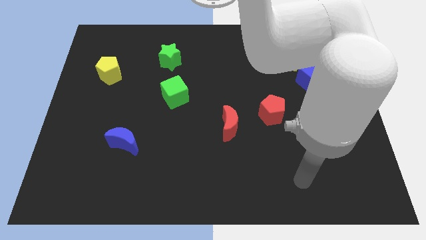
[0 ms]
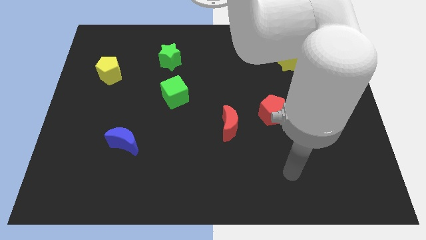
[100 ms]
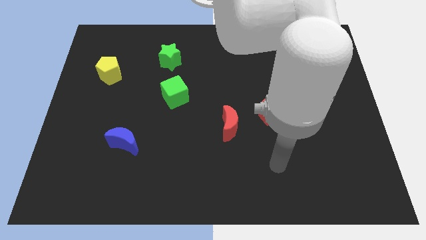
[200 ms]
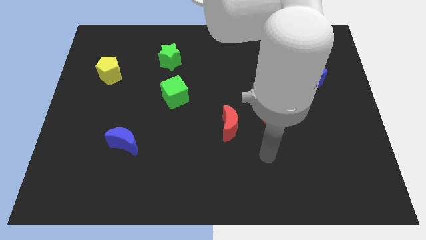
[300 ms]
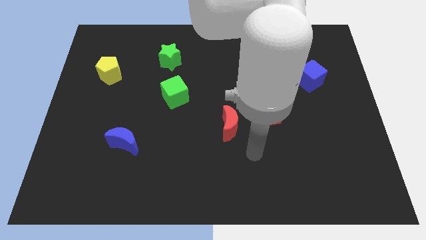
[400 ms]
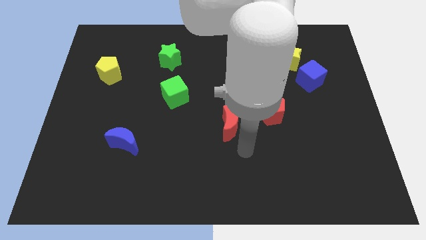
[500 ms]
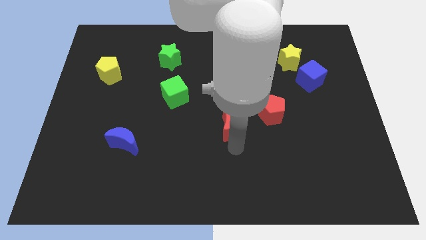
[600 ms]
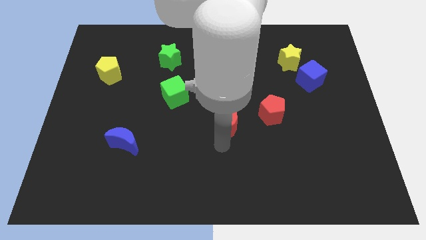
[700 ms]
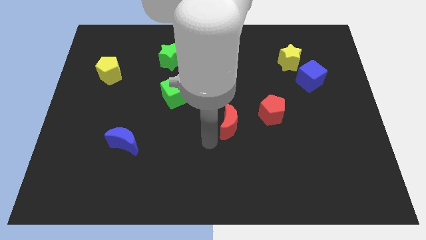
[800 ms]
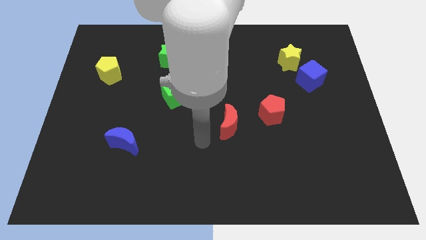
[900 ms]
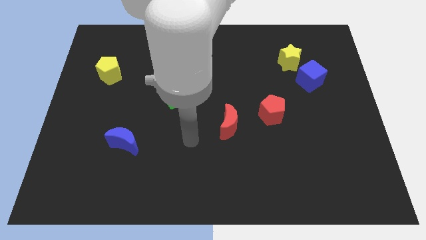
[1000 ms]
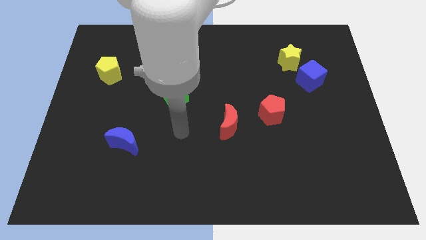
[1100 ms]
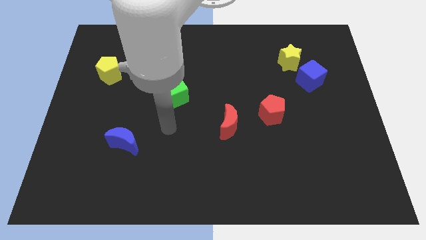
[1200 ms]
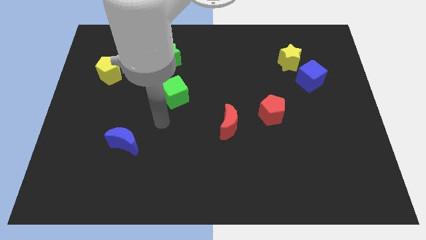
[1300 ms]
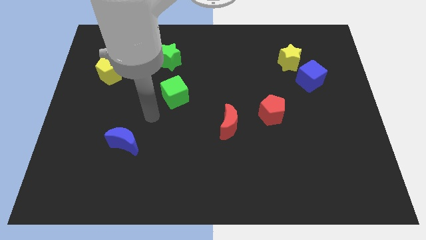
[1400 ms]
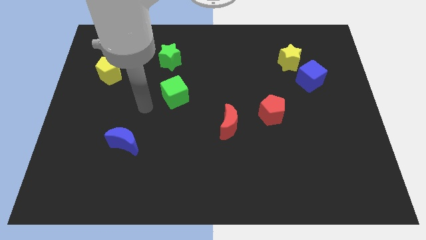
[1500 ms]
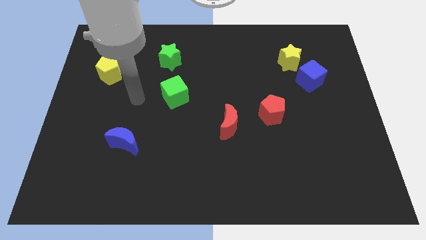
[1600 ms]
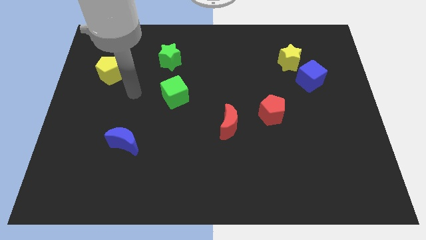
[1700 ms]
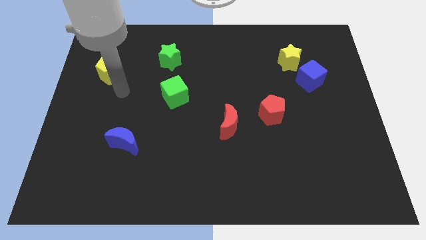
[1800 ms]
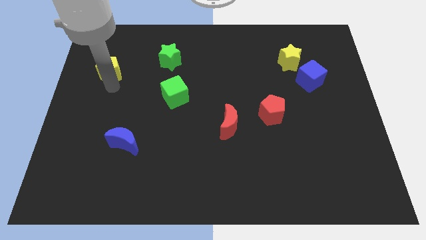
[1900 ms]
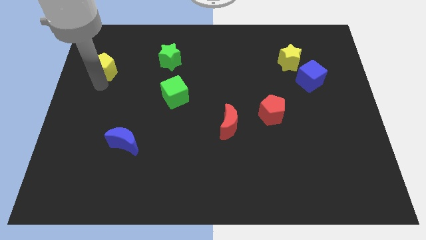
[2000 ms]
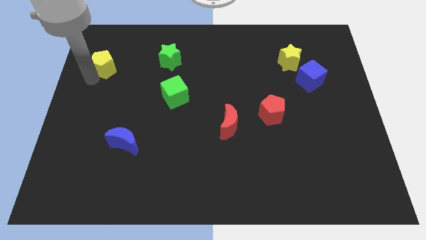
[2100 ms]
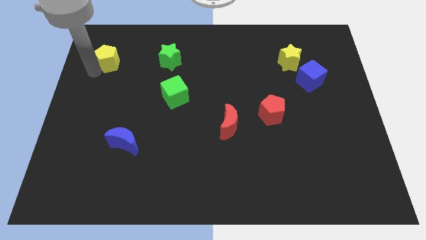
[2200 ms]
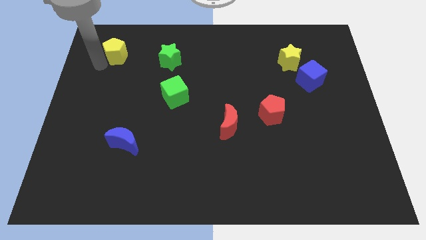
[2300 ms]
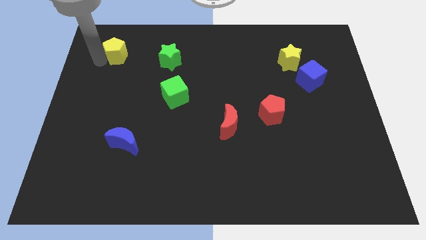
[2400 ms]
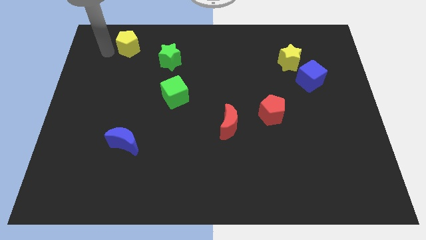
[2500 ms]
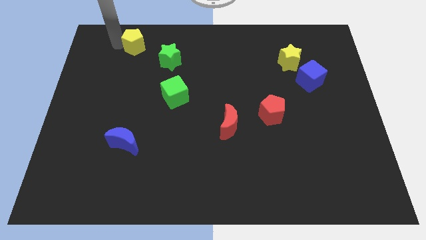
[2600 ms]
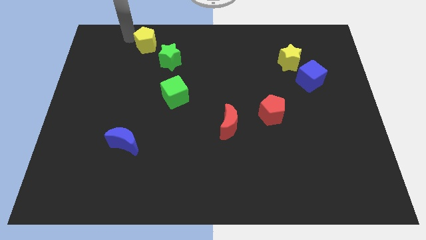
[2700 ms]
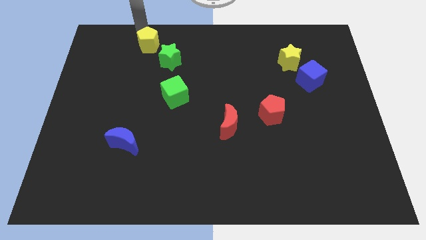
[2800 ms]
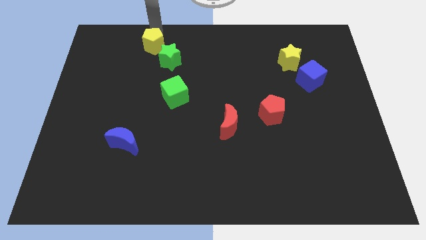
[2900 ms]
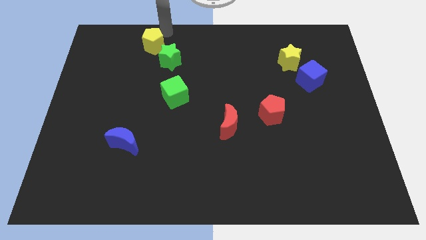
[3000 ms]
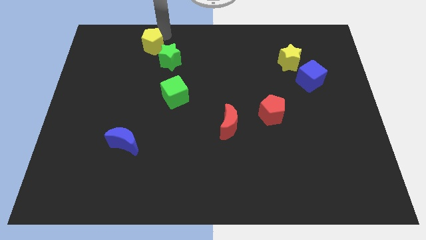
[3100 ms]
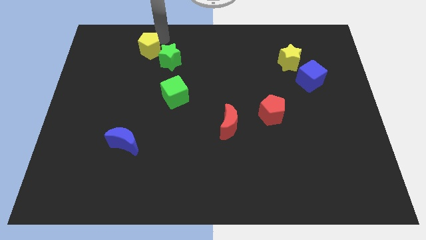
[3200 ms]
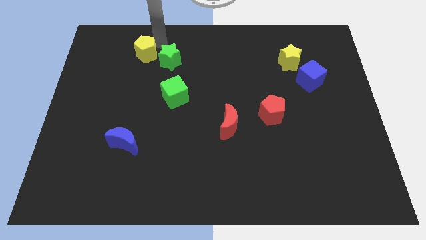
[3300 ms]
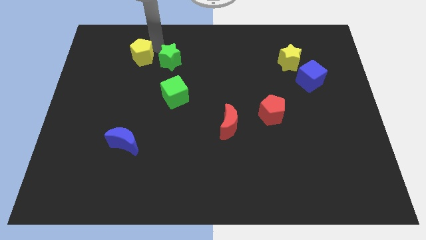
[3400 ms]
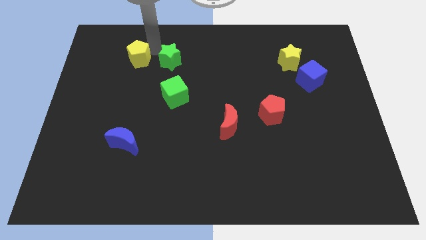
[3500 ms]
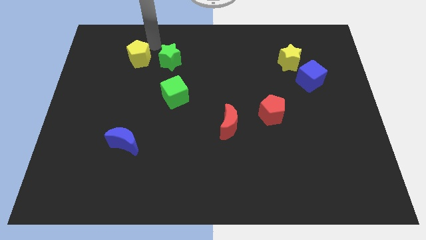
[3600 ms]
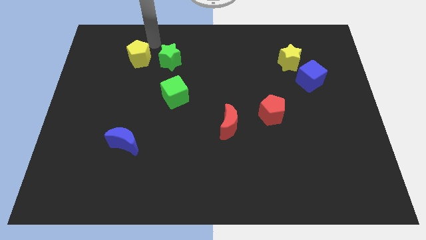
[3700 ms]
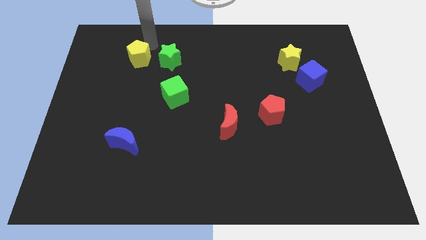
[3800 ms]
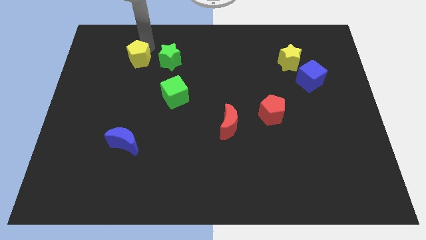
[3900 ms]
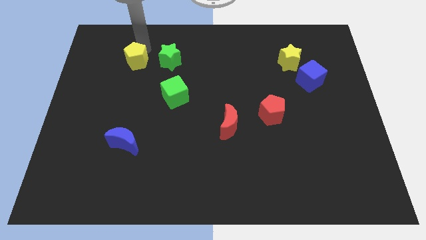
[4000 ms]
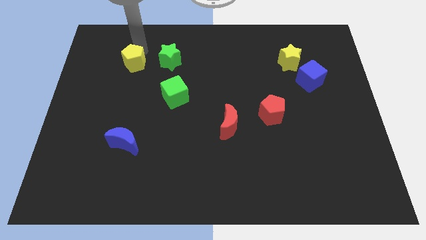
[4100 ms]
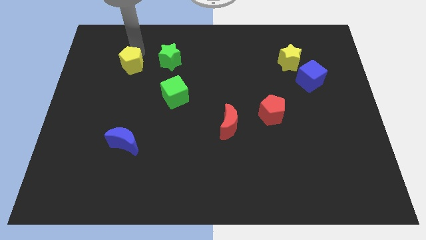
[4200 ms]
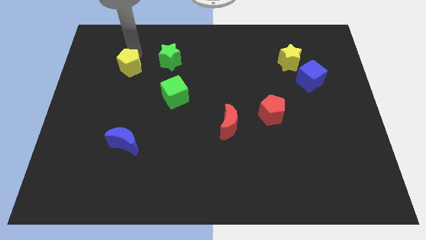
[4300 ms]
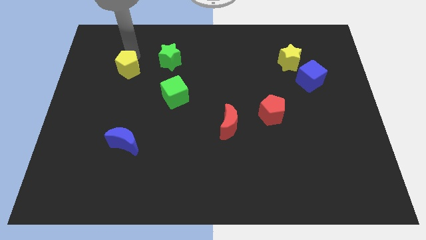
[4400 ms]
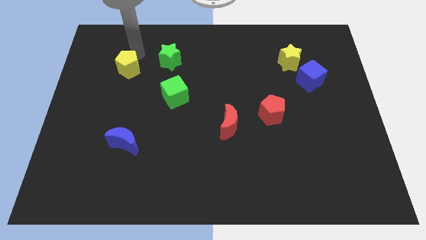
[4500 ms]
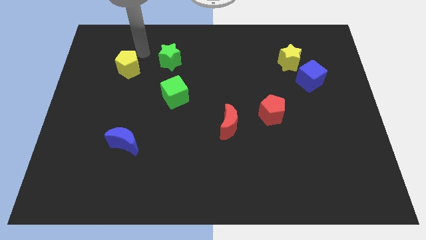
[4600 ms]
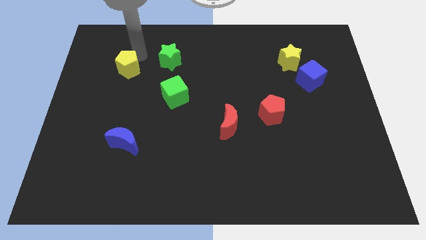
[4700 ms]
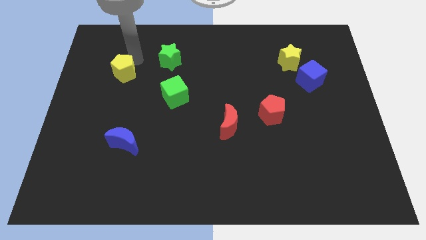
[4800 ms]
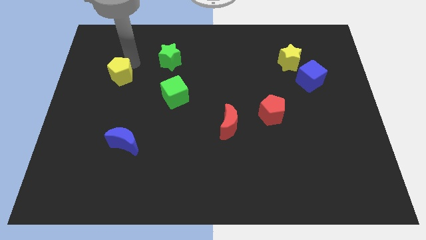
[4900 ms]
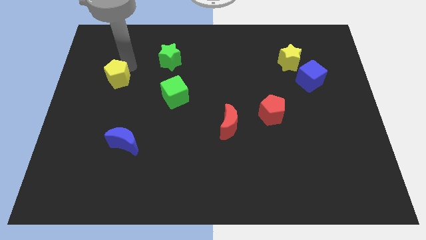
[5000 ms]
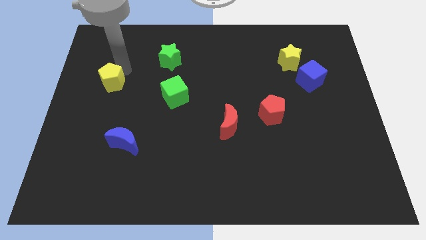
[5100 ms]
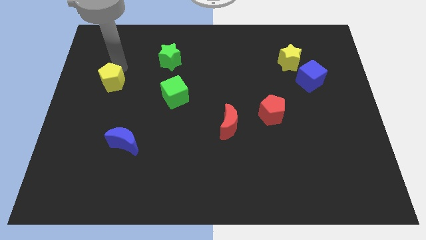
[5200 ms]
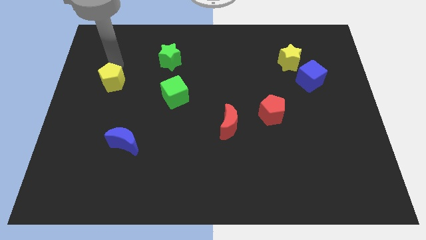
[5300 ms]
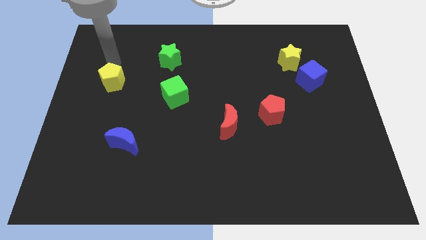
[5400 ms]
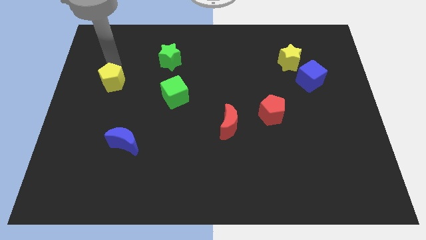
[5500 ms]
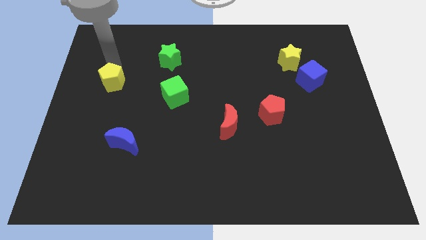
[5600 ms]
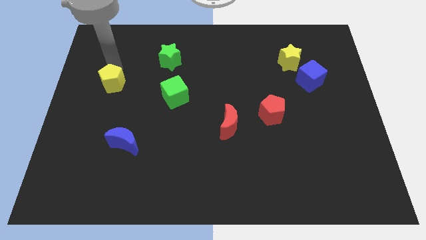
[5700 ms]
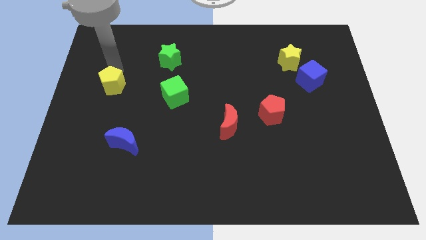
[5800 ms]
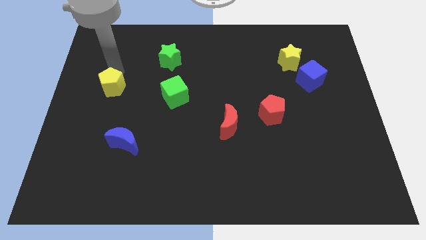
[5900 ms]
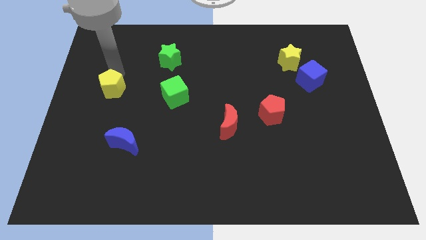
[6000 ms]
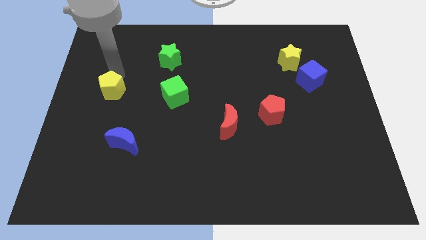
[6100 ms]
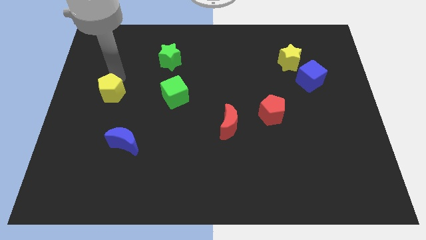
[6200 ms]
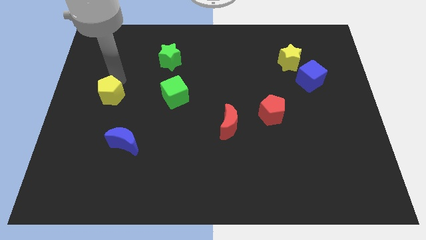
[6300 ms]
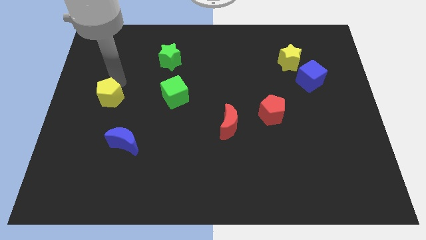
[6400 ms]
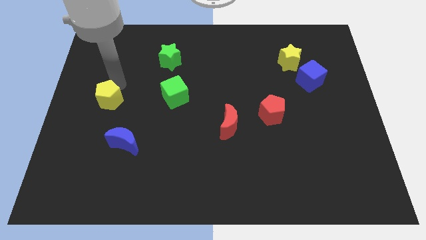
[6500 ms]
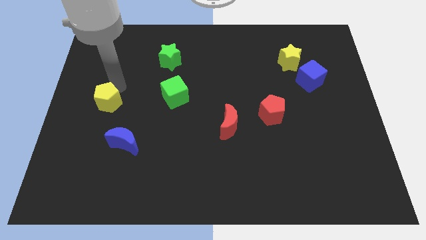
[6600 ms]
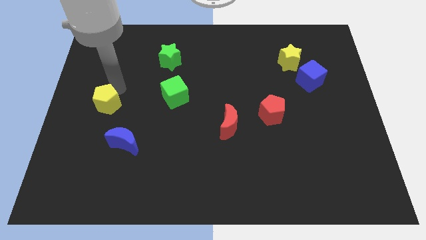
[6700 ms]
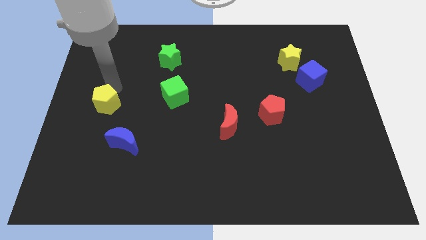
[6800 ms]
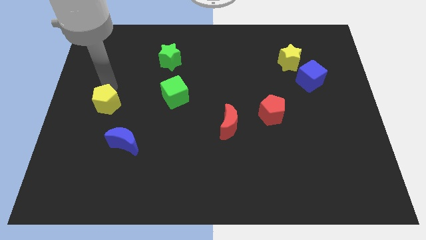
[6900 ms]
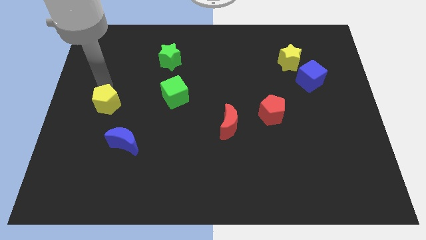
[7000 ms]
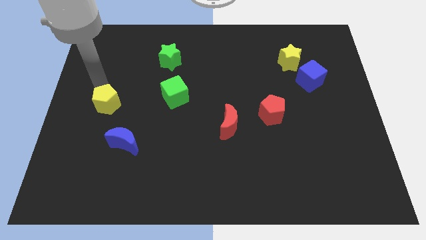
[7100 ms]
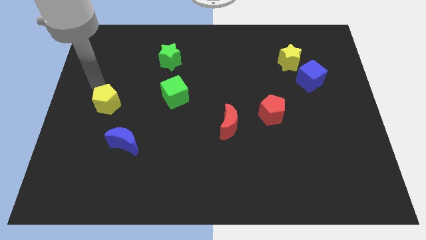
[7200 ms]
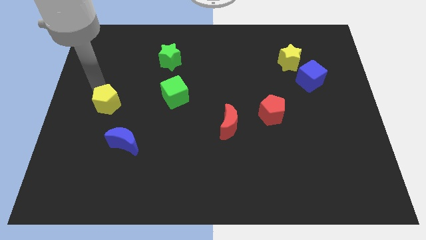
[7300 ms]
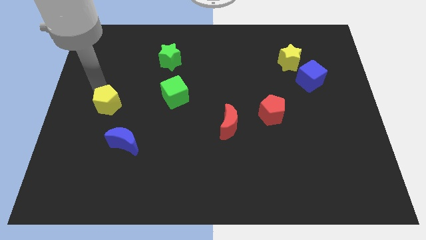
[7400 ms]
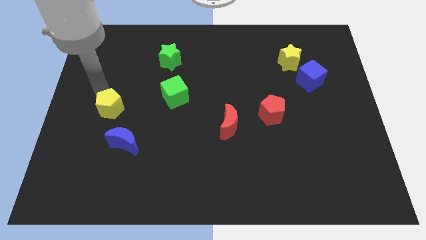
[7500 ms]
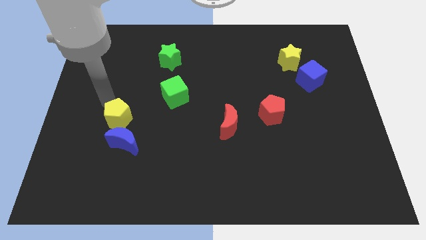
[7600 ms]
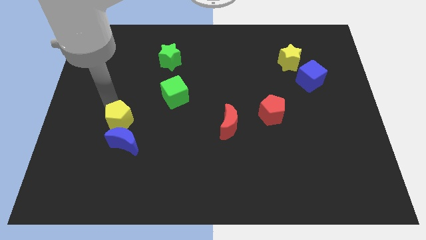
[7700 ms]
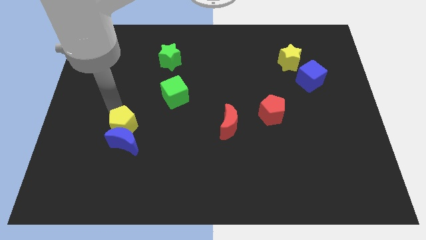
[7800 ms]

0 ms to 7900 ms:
put the yellow pentagon towards the blue moon
